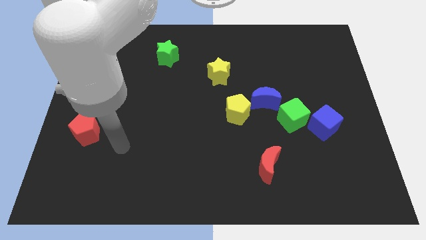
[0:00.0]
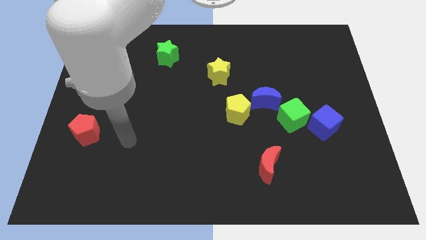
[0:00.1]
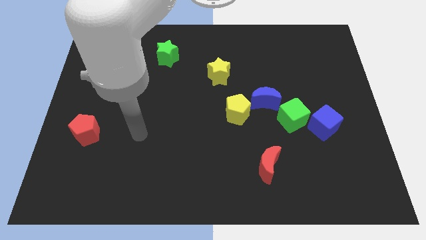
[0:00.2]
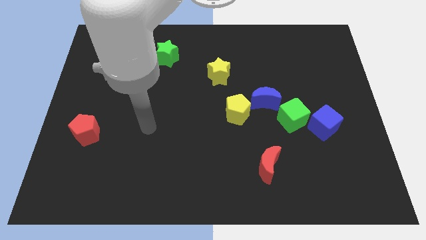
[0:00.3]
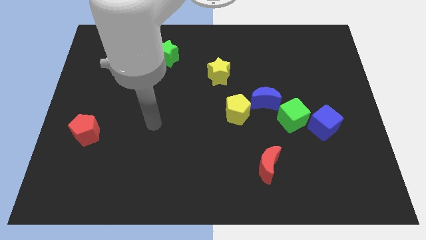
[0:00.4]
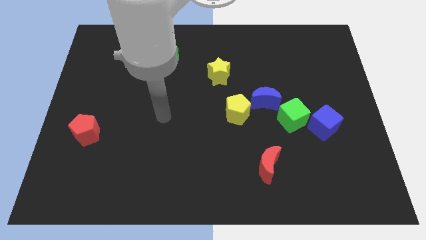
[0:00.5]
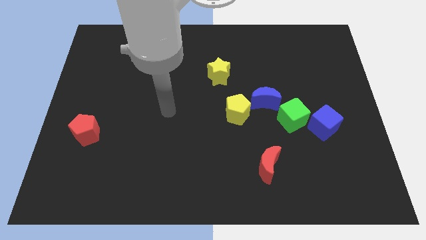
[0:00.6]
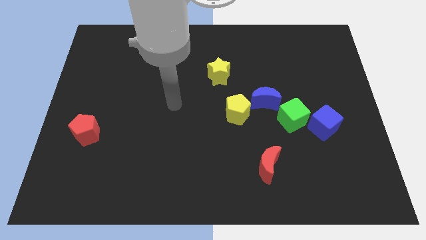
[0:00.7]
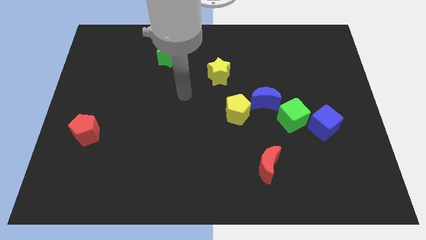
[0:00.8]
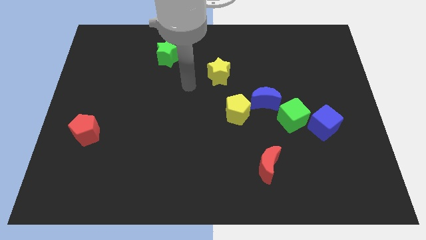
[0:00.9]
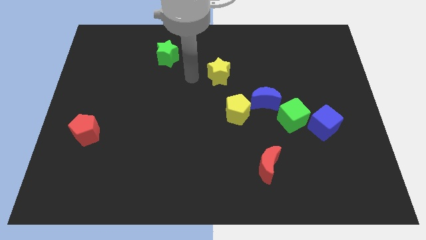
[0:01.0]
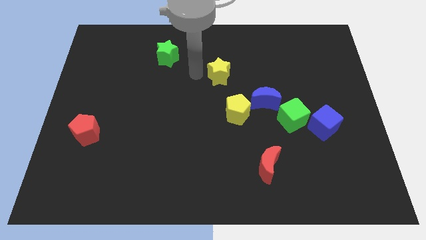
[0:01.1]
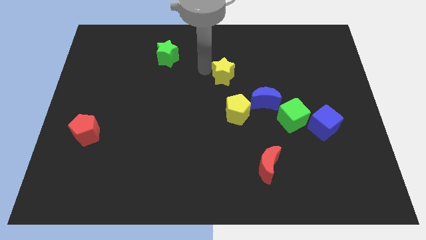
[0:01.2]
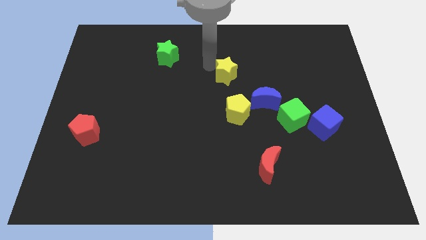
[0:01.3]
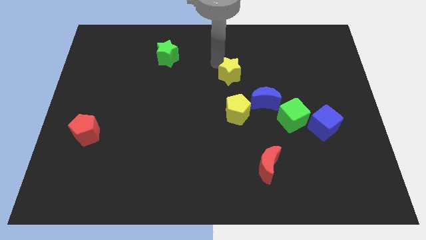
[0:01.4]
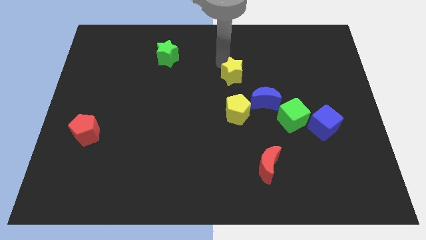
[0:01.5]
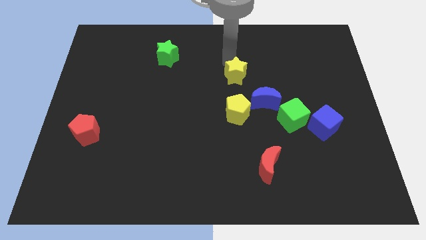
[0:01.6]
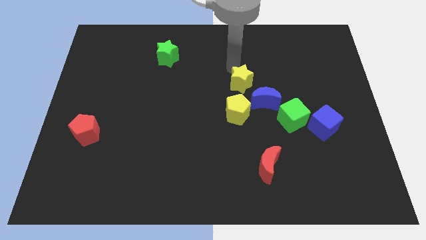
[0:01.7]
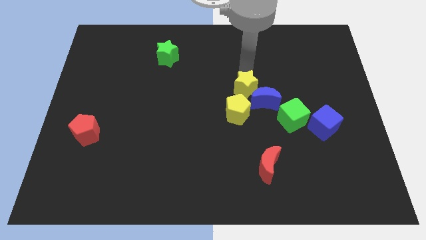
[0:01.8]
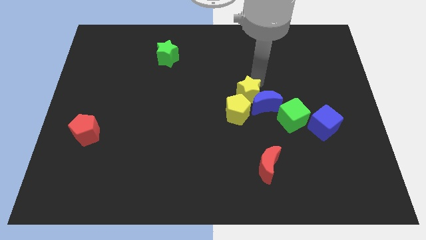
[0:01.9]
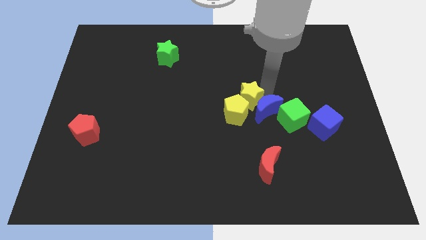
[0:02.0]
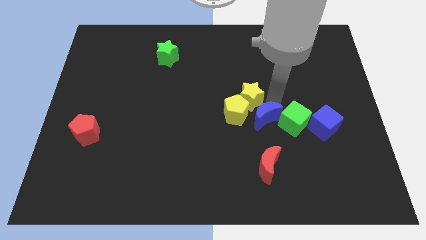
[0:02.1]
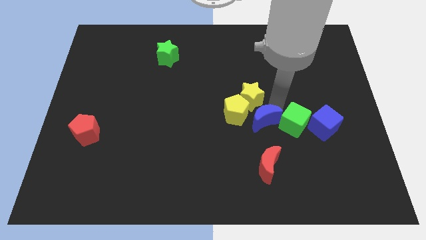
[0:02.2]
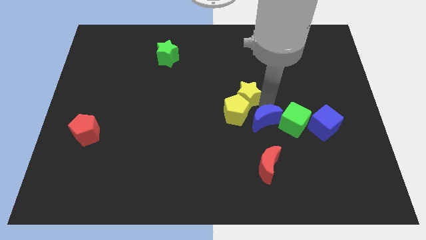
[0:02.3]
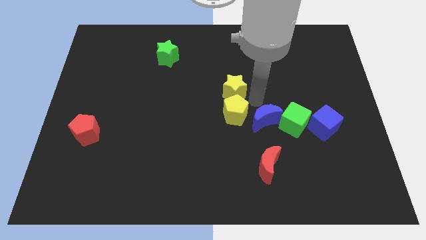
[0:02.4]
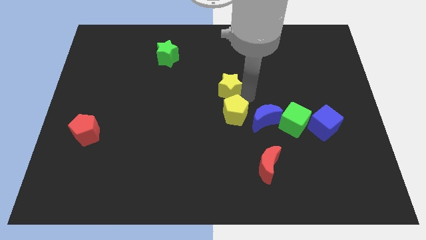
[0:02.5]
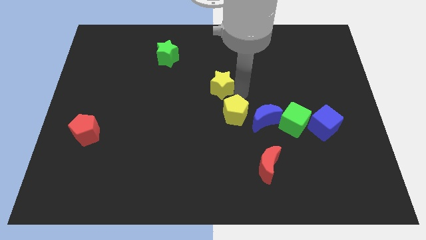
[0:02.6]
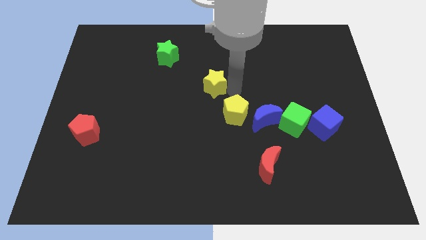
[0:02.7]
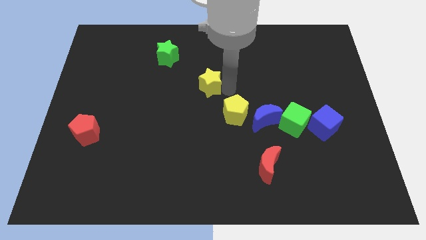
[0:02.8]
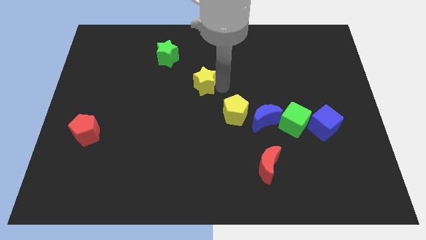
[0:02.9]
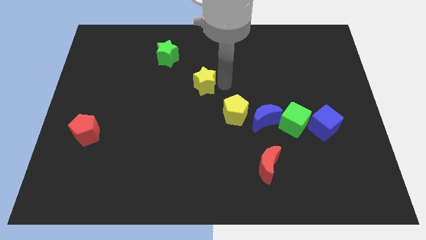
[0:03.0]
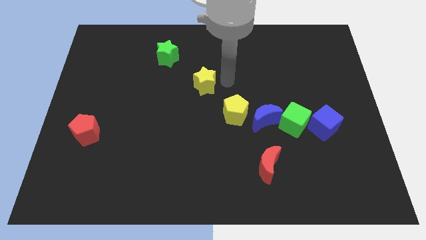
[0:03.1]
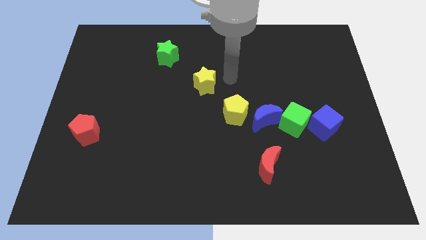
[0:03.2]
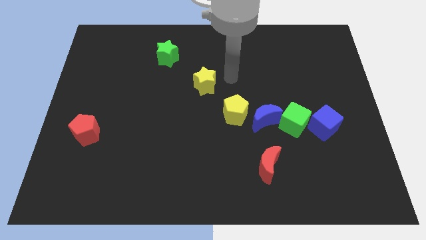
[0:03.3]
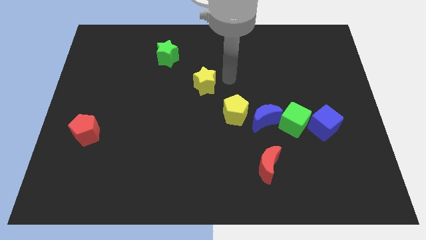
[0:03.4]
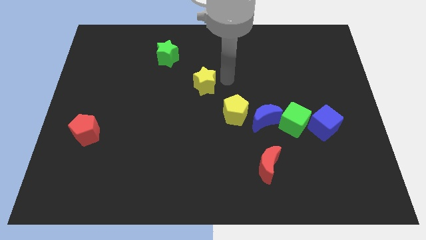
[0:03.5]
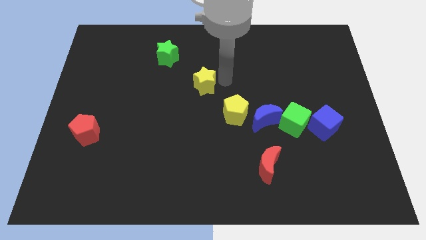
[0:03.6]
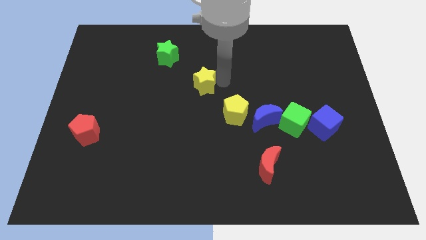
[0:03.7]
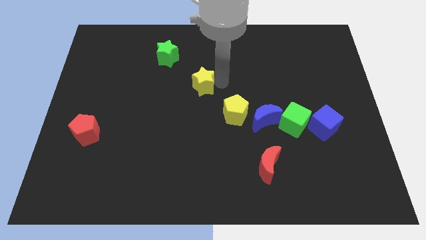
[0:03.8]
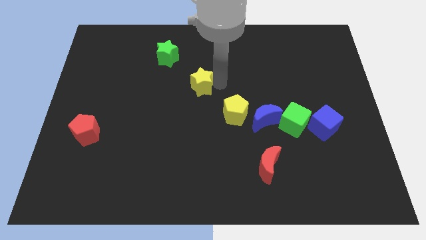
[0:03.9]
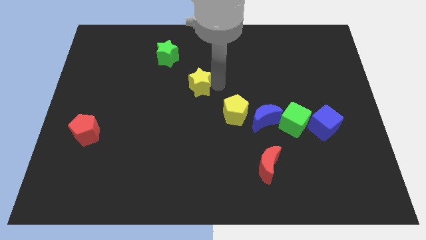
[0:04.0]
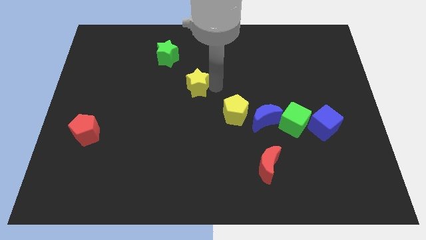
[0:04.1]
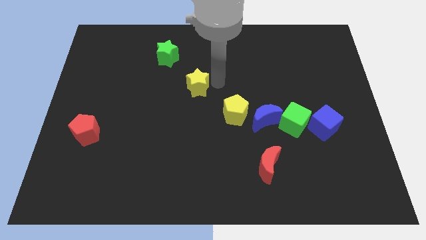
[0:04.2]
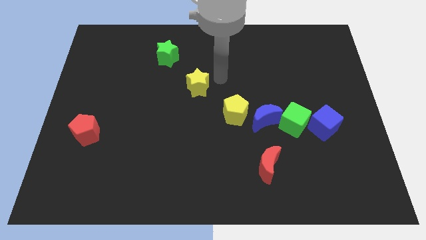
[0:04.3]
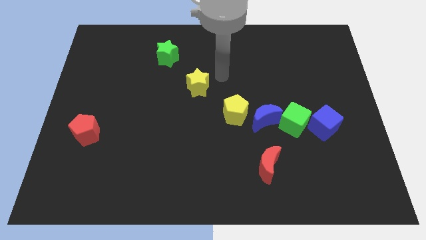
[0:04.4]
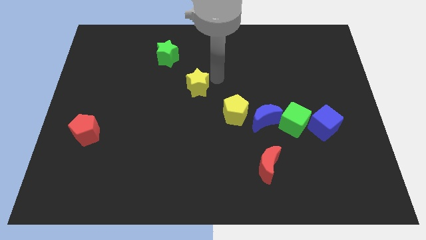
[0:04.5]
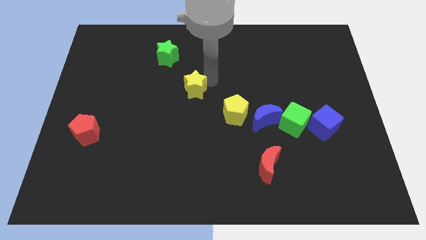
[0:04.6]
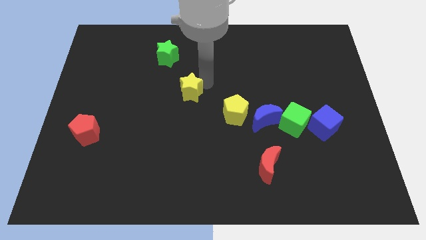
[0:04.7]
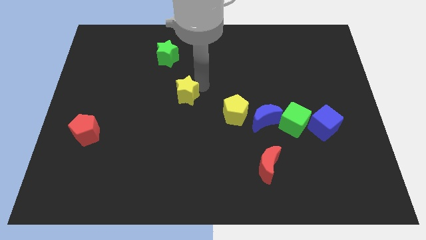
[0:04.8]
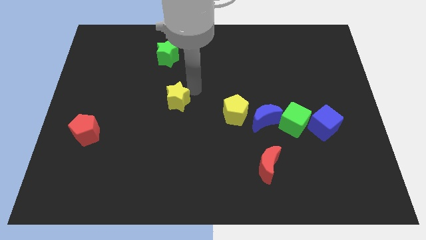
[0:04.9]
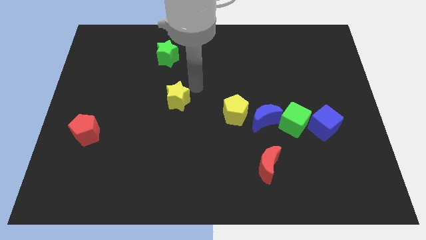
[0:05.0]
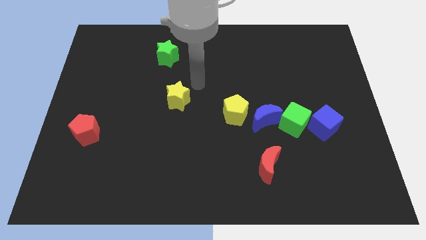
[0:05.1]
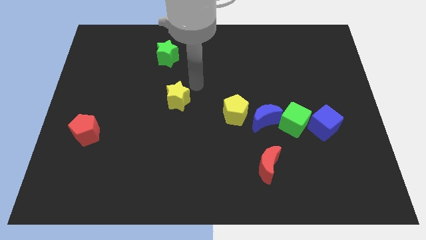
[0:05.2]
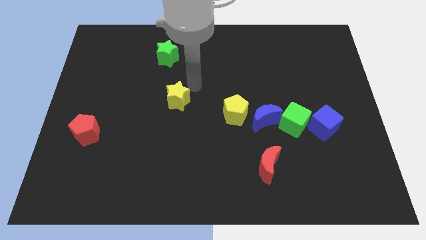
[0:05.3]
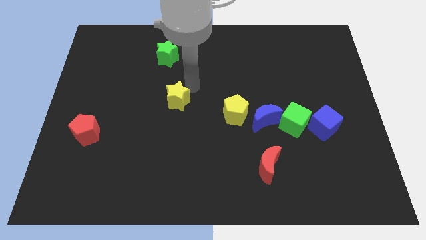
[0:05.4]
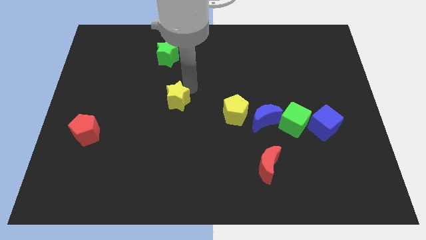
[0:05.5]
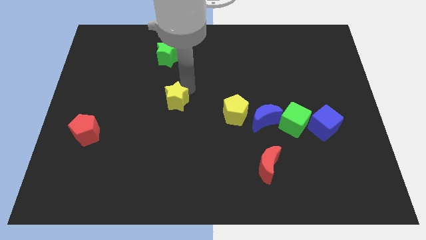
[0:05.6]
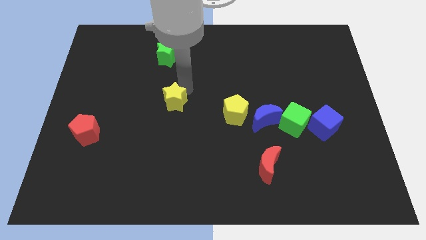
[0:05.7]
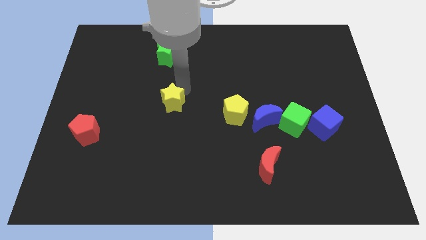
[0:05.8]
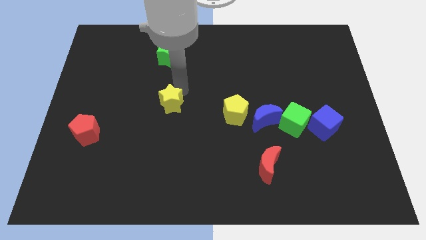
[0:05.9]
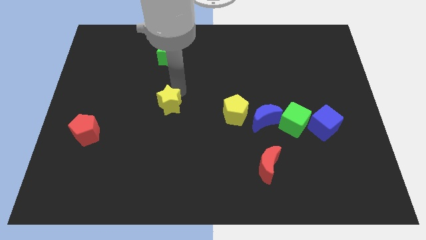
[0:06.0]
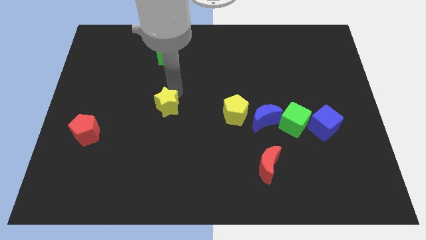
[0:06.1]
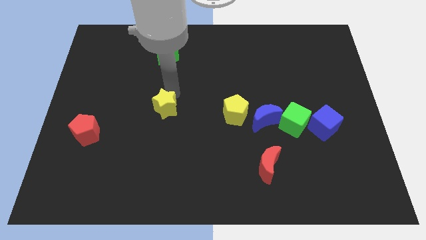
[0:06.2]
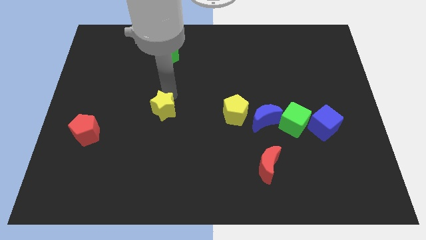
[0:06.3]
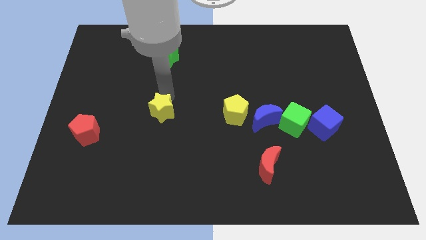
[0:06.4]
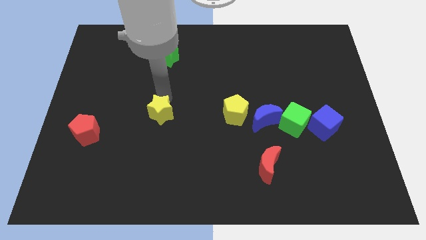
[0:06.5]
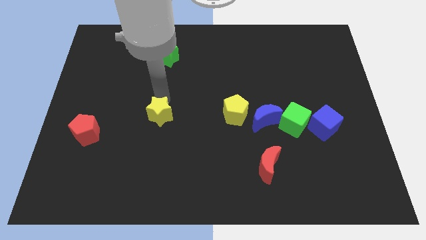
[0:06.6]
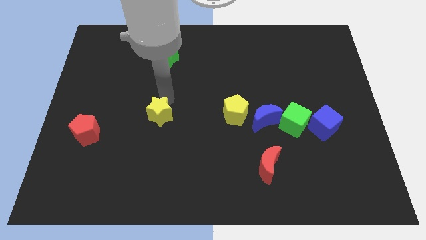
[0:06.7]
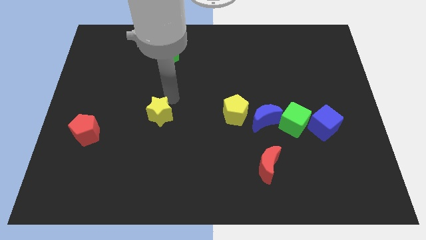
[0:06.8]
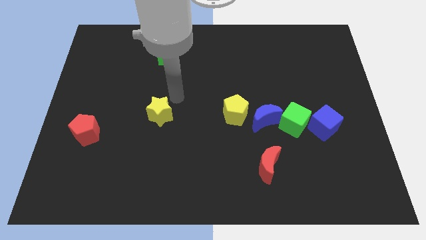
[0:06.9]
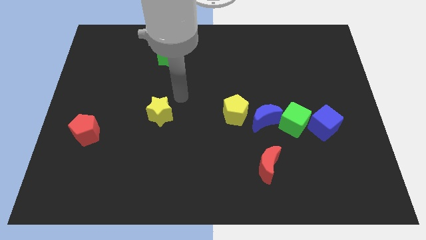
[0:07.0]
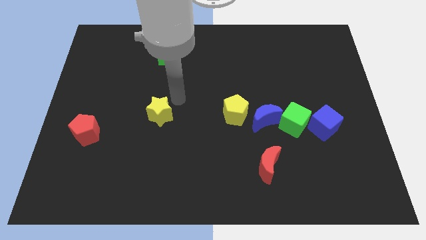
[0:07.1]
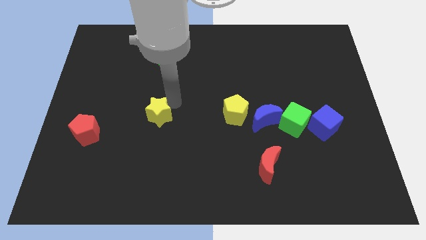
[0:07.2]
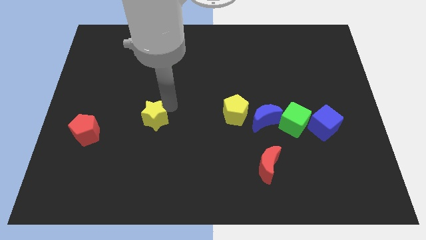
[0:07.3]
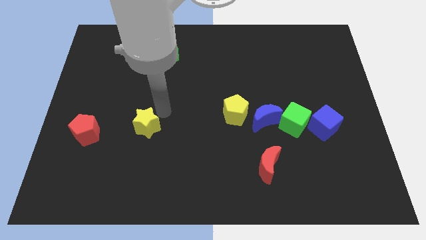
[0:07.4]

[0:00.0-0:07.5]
push the yellow star diagonally downwards and to the left
